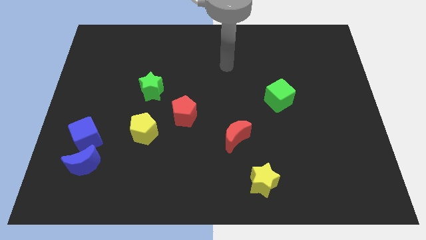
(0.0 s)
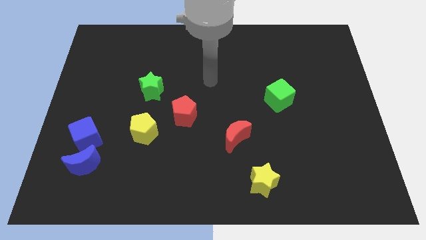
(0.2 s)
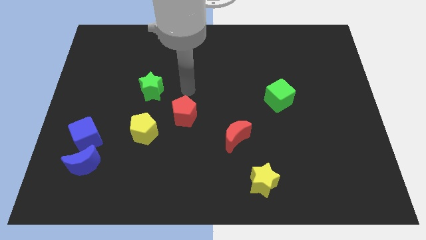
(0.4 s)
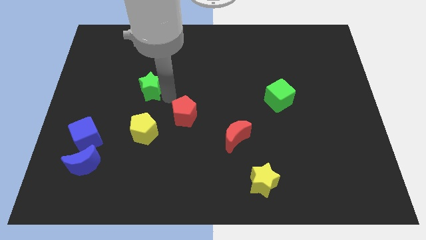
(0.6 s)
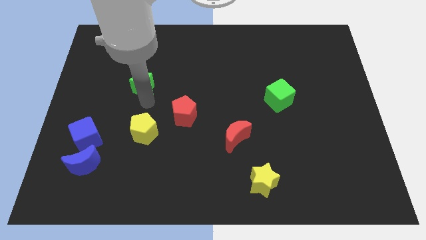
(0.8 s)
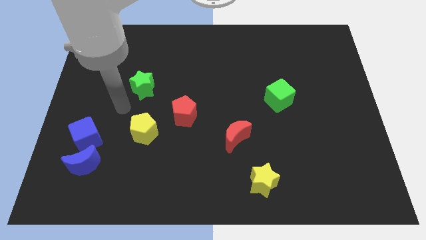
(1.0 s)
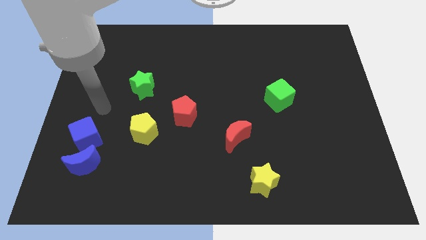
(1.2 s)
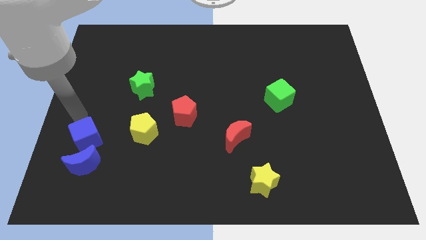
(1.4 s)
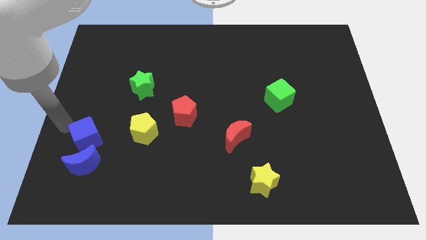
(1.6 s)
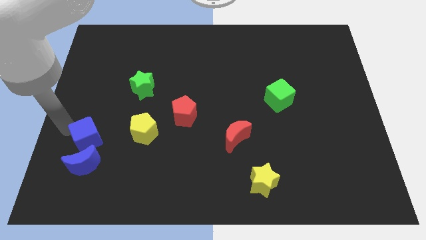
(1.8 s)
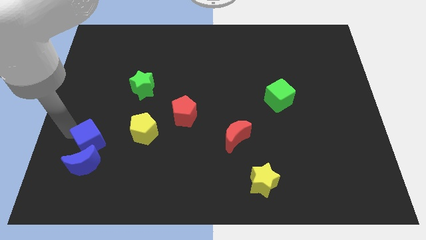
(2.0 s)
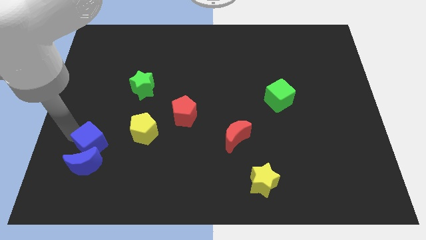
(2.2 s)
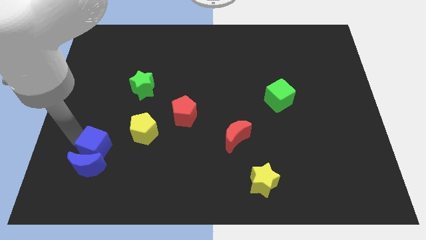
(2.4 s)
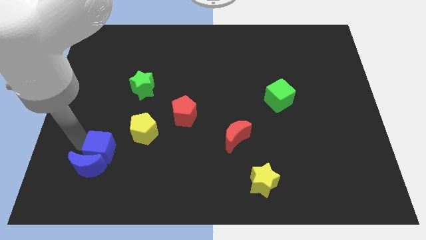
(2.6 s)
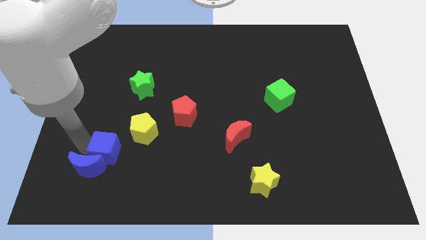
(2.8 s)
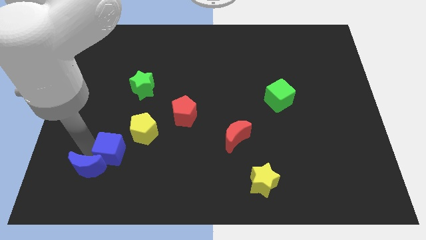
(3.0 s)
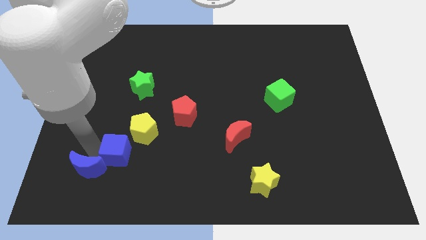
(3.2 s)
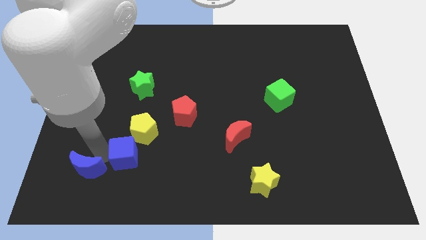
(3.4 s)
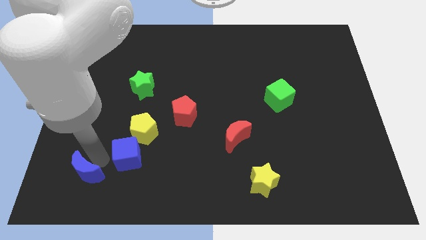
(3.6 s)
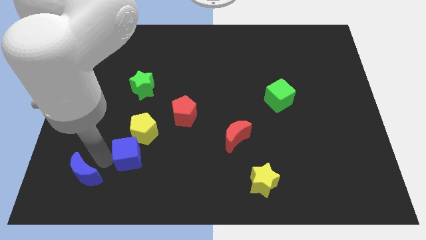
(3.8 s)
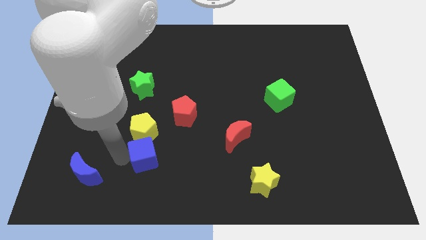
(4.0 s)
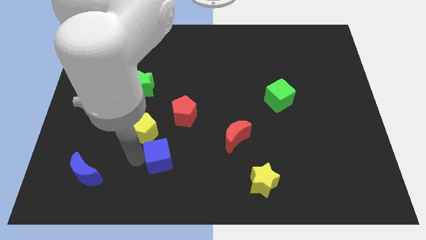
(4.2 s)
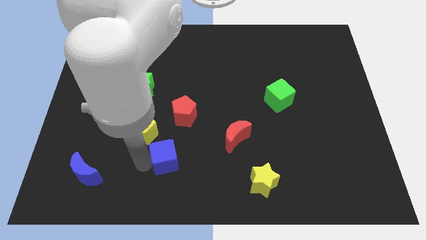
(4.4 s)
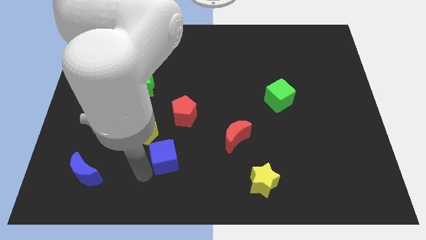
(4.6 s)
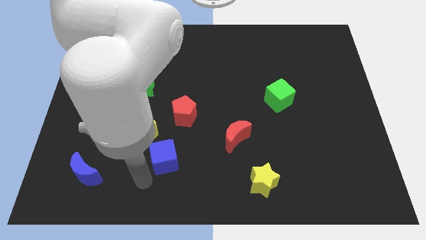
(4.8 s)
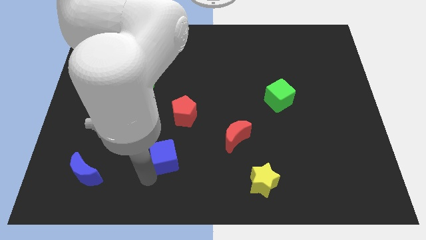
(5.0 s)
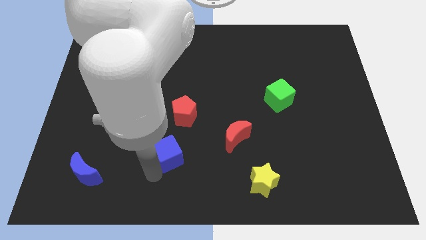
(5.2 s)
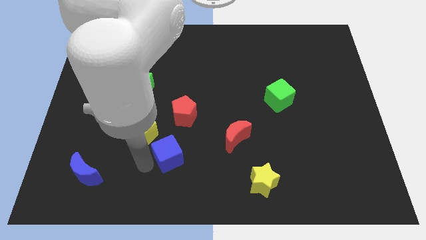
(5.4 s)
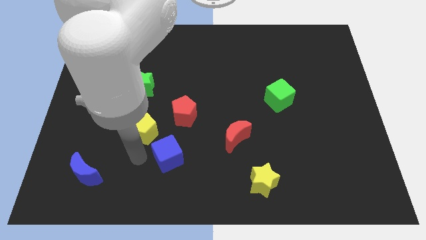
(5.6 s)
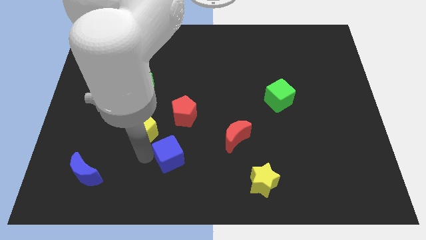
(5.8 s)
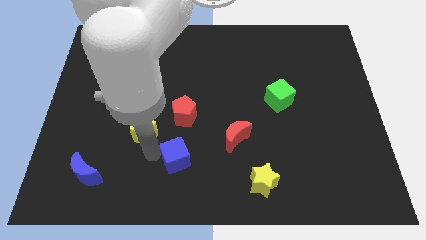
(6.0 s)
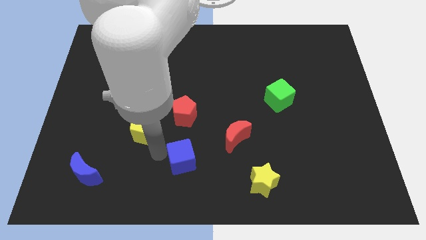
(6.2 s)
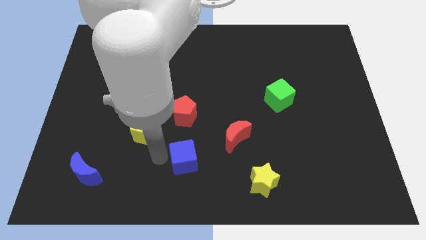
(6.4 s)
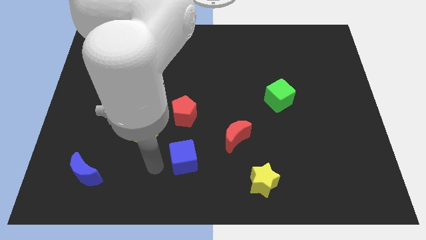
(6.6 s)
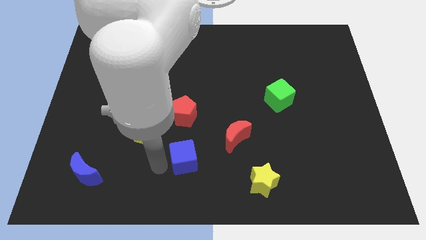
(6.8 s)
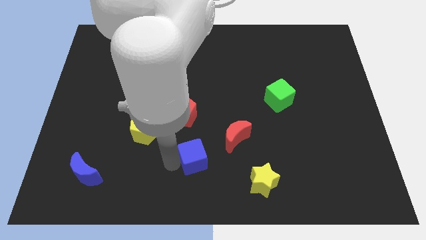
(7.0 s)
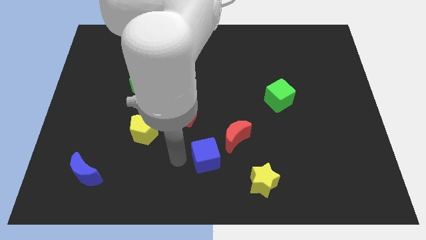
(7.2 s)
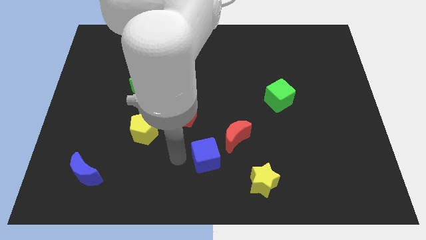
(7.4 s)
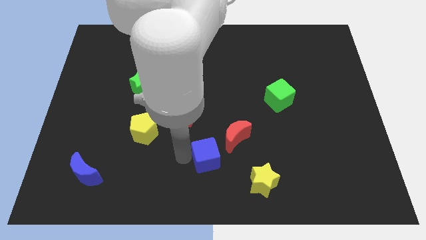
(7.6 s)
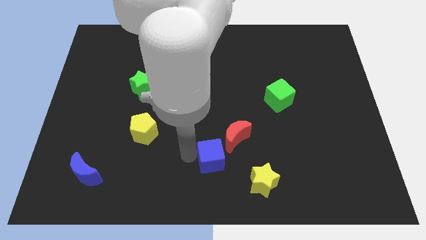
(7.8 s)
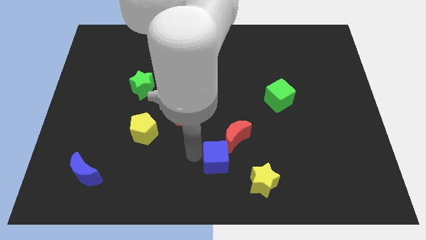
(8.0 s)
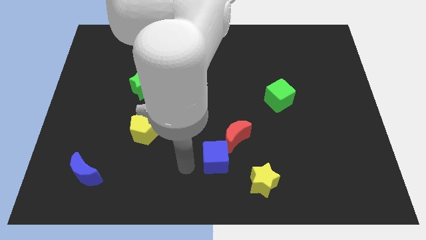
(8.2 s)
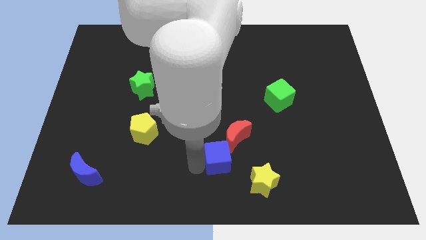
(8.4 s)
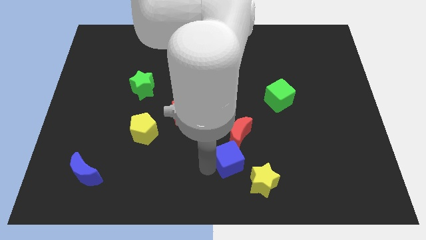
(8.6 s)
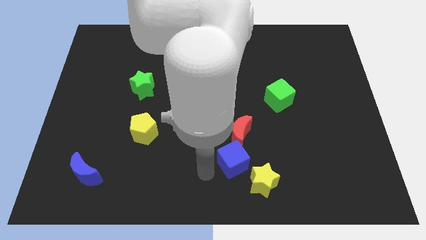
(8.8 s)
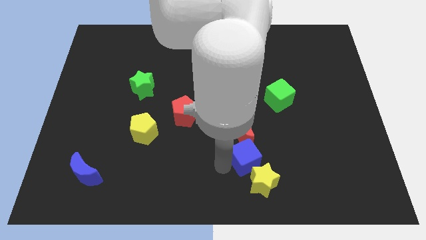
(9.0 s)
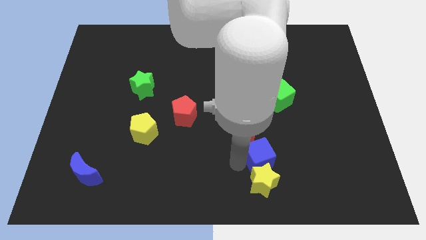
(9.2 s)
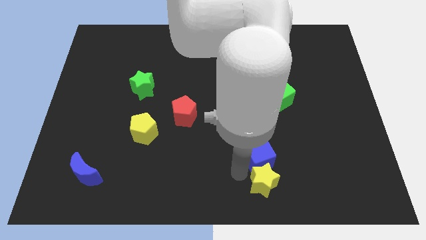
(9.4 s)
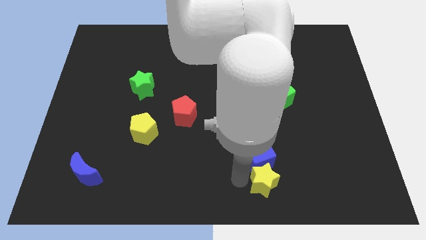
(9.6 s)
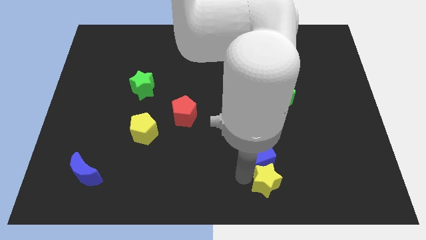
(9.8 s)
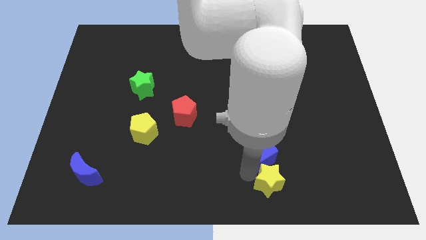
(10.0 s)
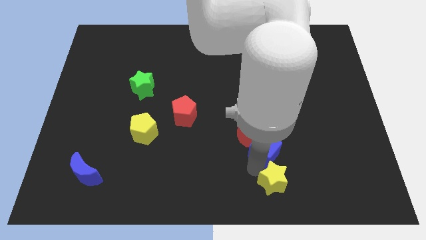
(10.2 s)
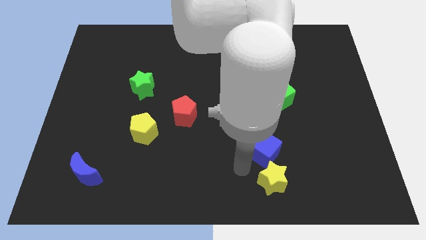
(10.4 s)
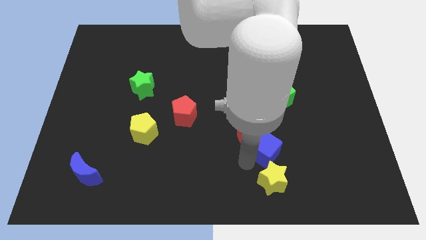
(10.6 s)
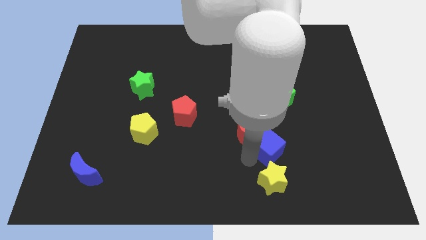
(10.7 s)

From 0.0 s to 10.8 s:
push the blue cube right of the red moon

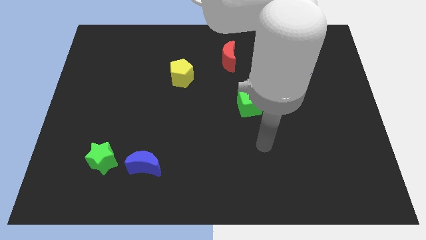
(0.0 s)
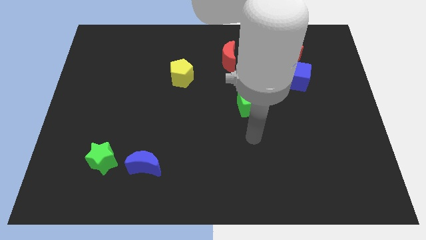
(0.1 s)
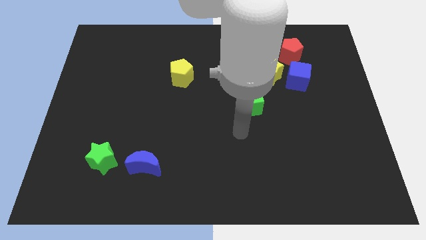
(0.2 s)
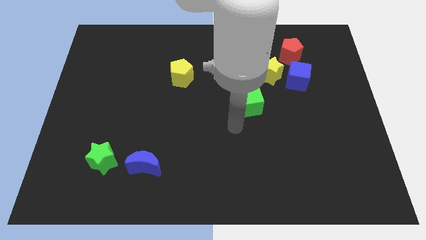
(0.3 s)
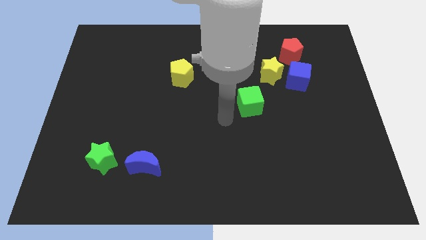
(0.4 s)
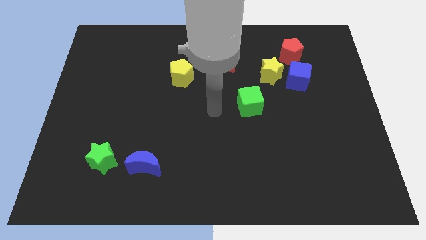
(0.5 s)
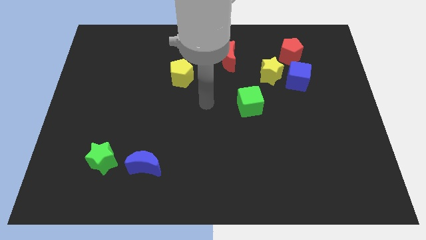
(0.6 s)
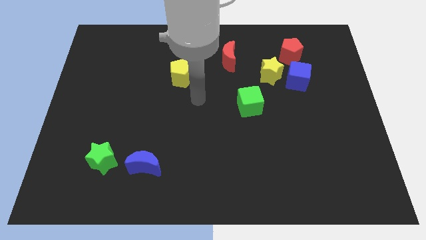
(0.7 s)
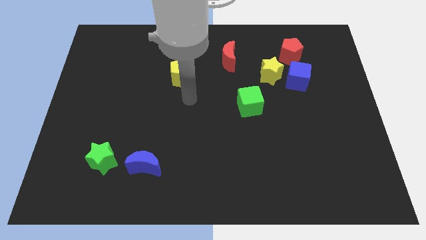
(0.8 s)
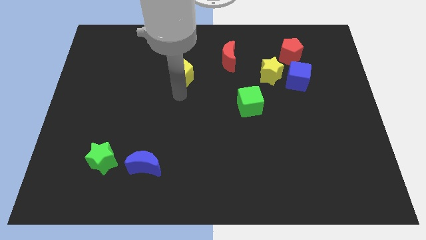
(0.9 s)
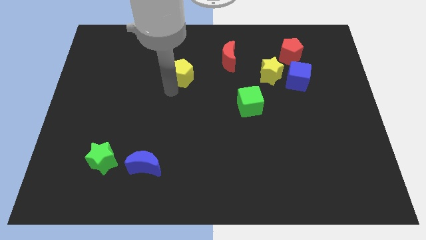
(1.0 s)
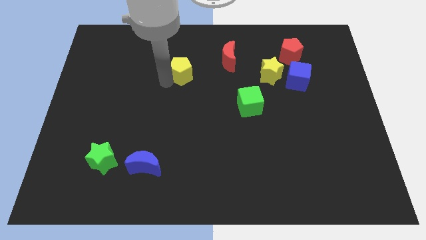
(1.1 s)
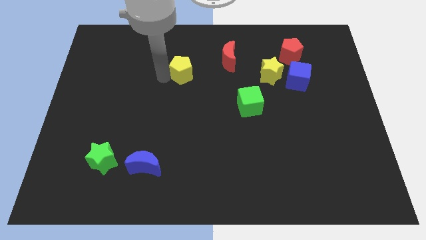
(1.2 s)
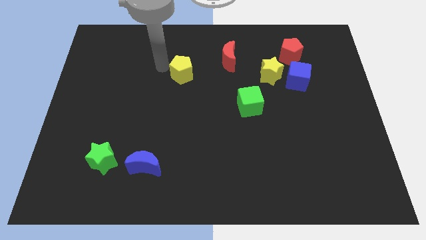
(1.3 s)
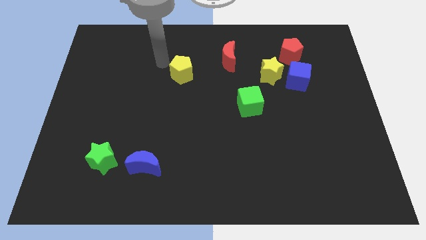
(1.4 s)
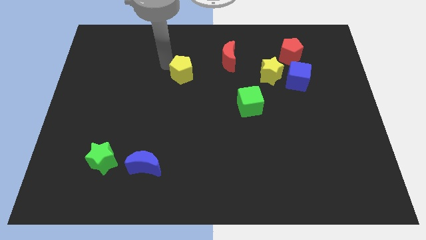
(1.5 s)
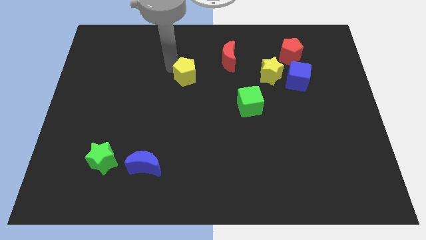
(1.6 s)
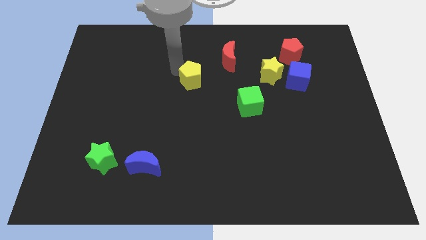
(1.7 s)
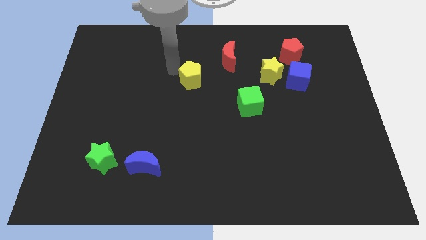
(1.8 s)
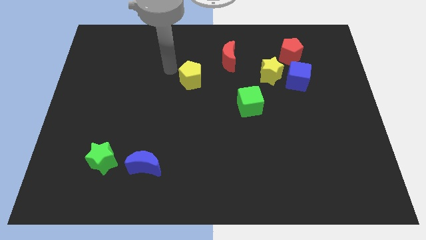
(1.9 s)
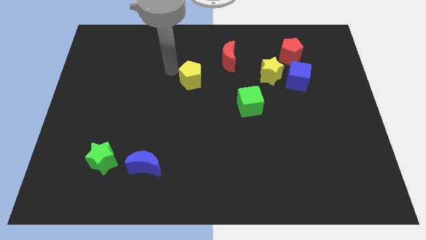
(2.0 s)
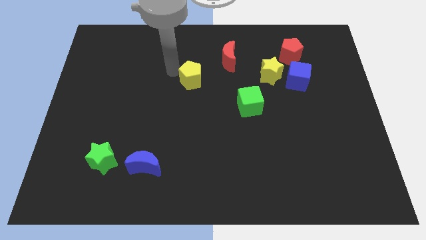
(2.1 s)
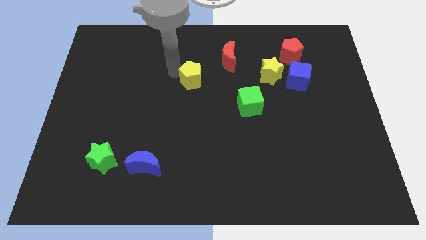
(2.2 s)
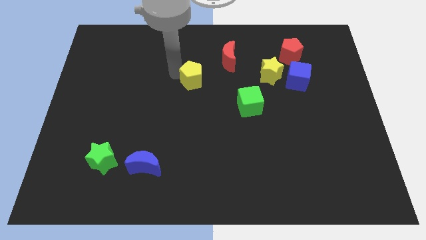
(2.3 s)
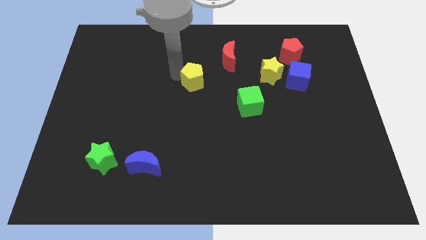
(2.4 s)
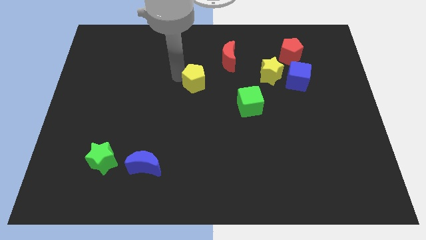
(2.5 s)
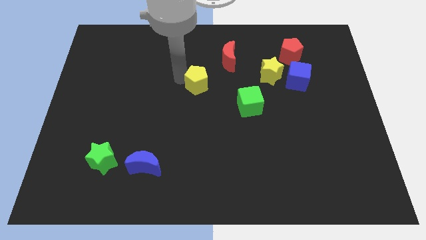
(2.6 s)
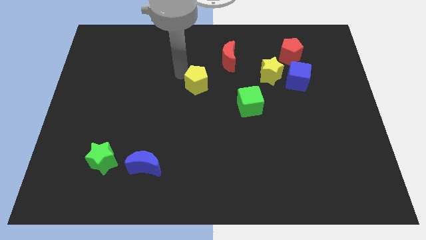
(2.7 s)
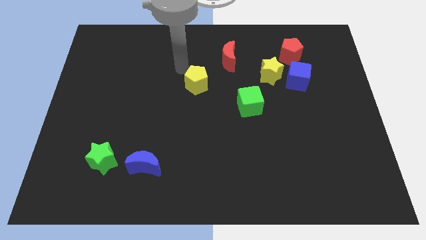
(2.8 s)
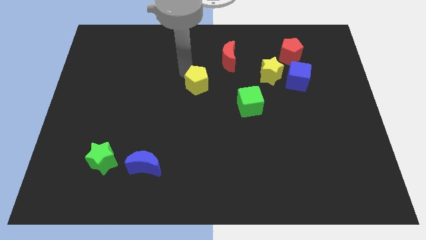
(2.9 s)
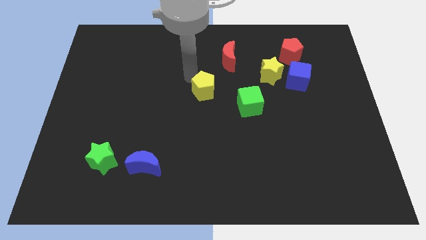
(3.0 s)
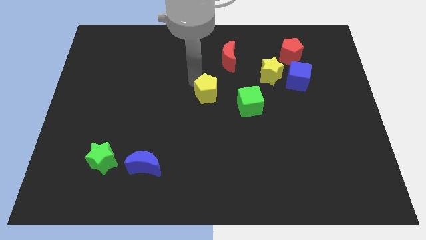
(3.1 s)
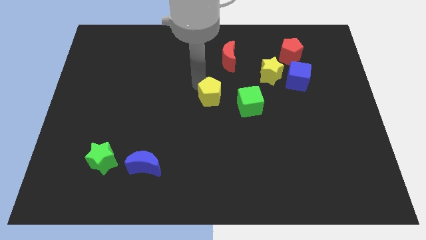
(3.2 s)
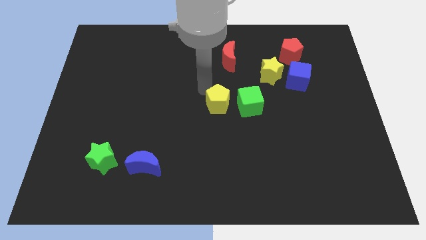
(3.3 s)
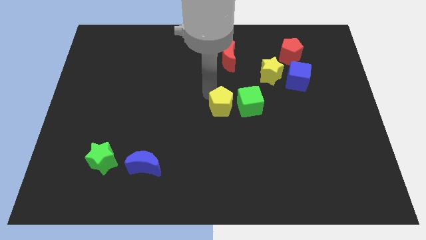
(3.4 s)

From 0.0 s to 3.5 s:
put the yellow pentagon to the bottom left of the green cube

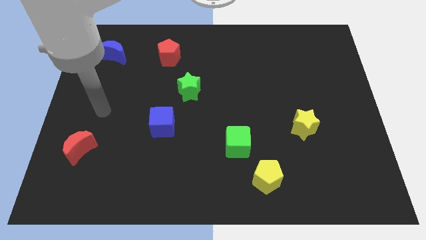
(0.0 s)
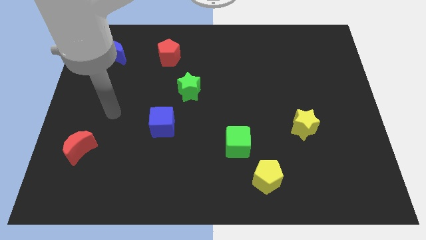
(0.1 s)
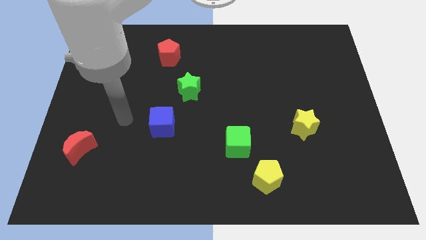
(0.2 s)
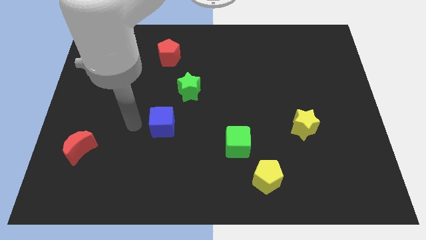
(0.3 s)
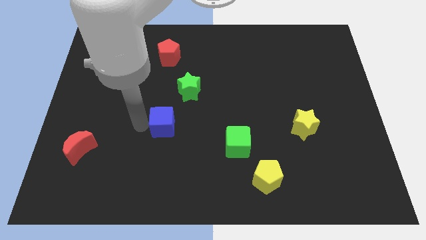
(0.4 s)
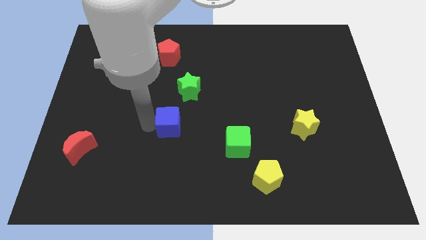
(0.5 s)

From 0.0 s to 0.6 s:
push the blue cube below the green star
